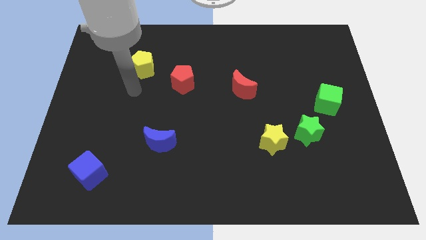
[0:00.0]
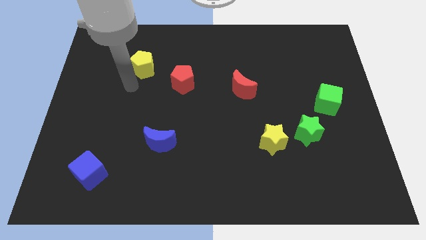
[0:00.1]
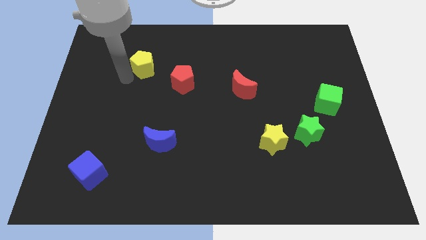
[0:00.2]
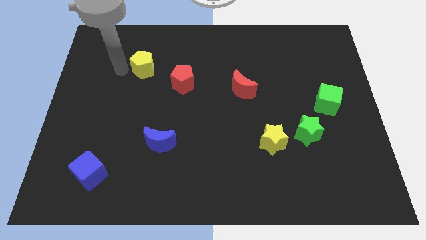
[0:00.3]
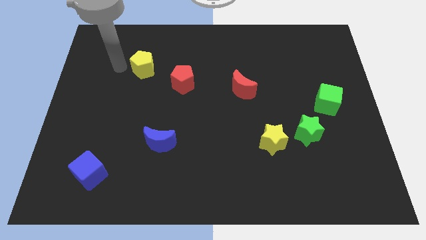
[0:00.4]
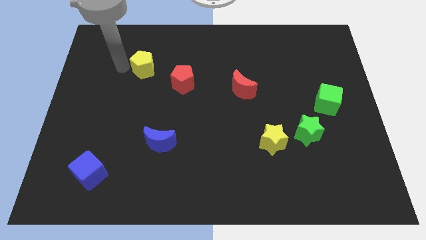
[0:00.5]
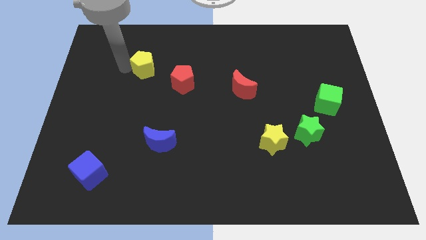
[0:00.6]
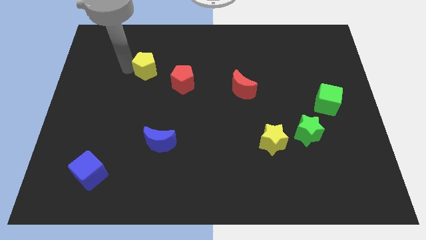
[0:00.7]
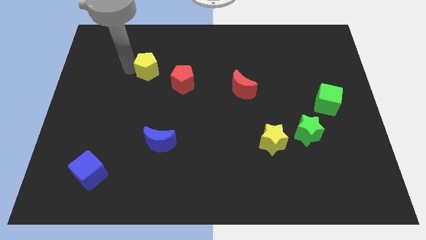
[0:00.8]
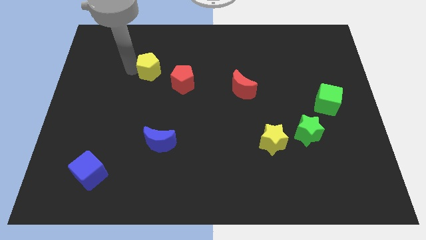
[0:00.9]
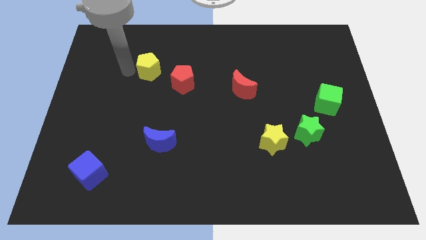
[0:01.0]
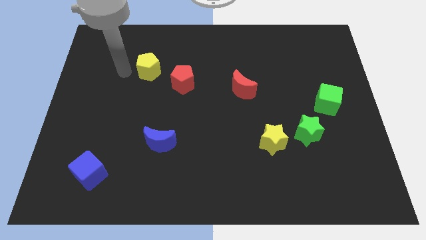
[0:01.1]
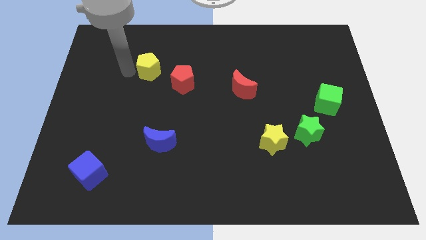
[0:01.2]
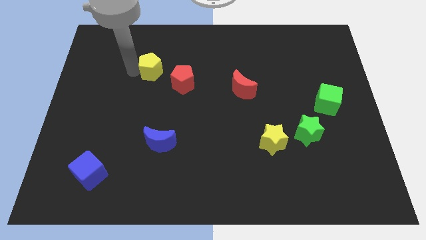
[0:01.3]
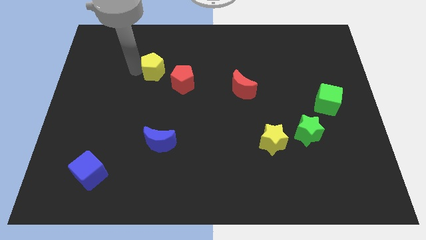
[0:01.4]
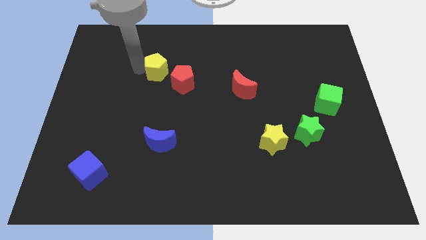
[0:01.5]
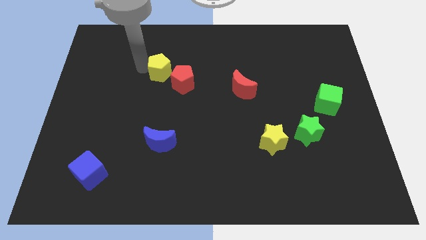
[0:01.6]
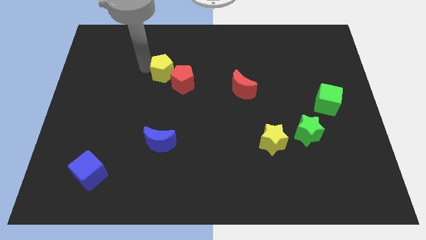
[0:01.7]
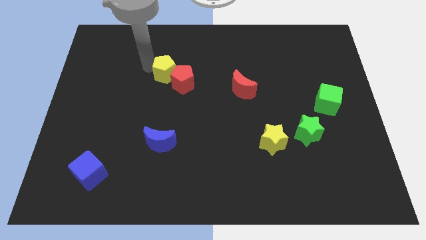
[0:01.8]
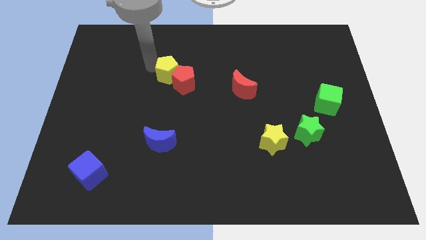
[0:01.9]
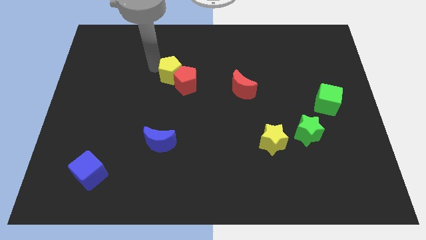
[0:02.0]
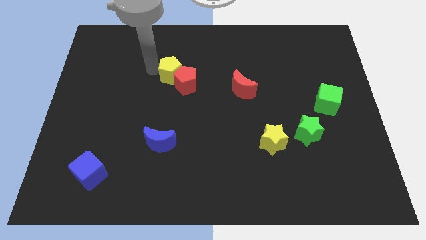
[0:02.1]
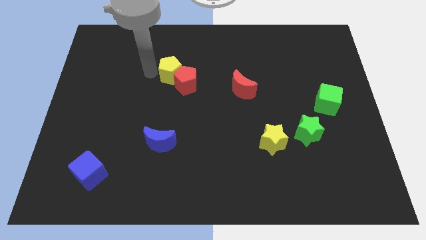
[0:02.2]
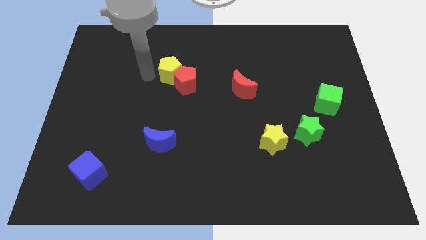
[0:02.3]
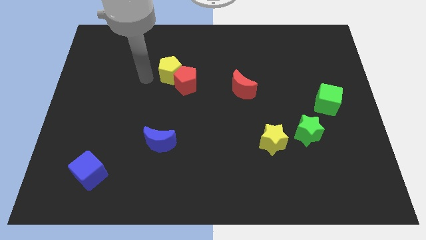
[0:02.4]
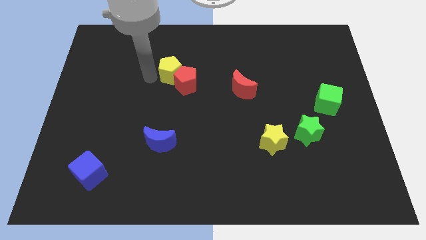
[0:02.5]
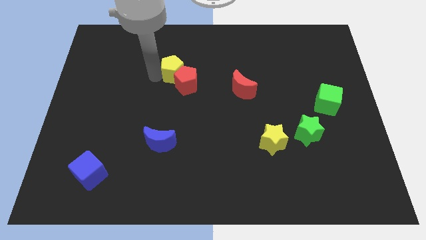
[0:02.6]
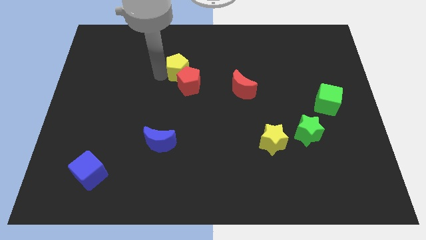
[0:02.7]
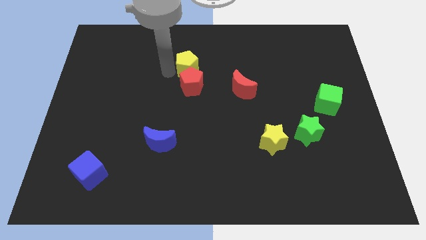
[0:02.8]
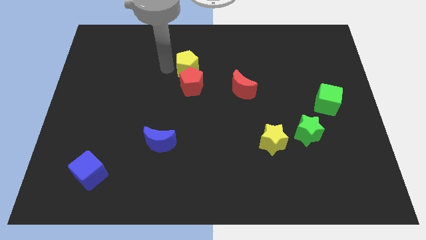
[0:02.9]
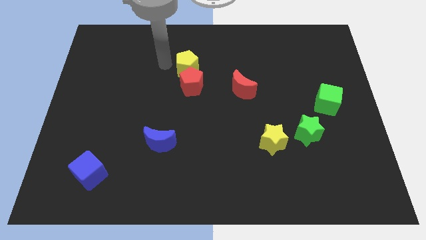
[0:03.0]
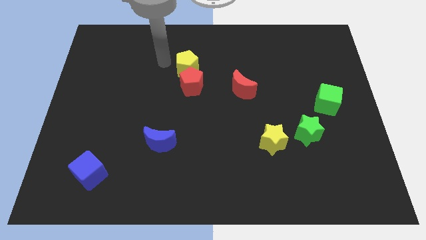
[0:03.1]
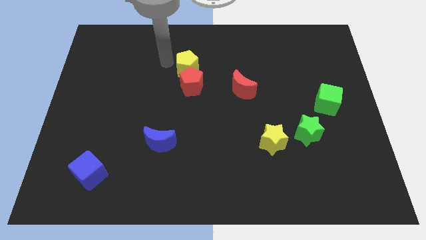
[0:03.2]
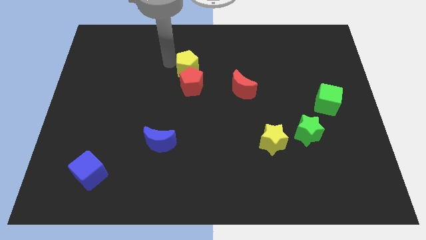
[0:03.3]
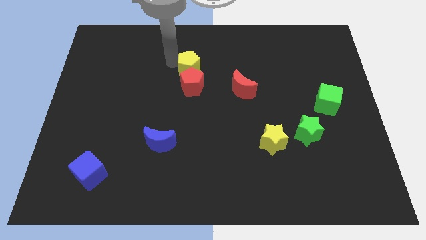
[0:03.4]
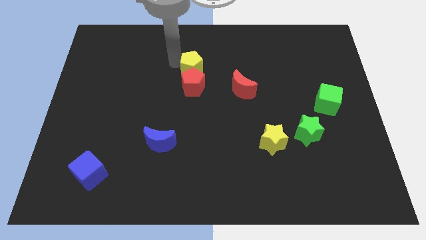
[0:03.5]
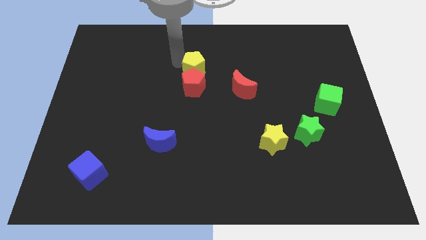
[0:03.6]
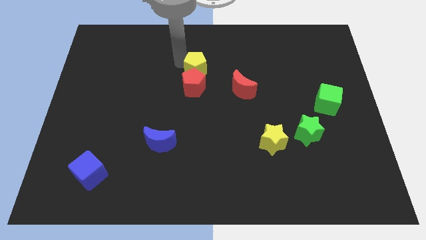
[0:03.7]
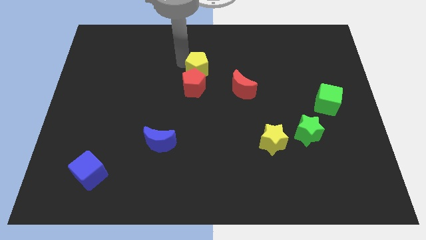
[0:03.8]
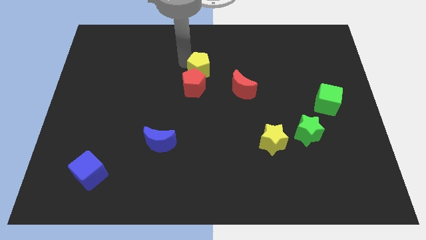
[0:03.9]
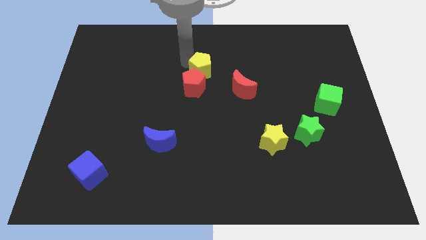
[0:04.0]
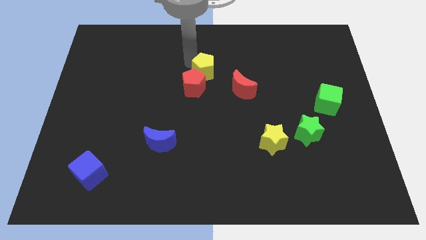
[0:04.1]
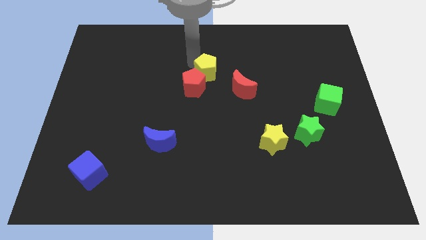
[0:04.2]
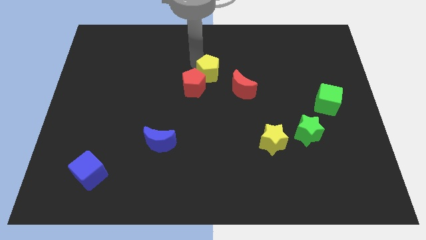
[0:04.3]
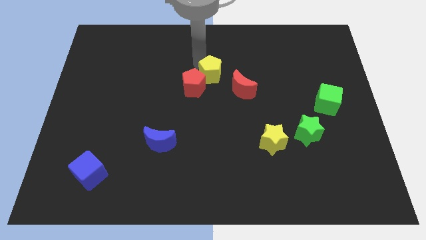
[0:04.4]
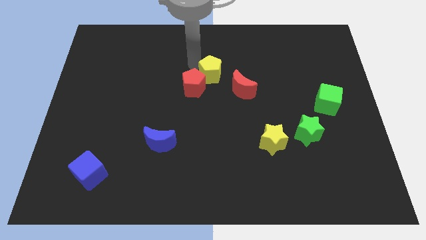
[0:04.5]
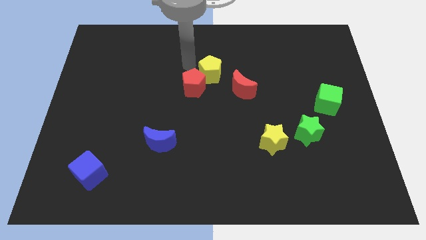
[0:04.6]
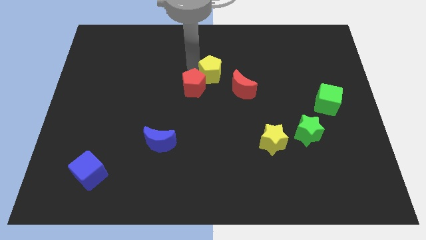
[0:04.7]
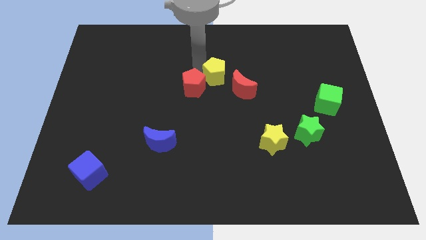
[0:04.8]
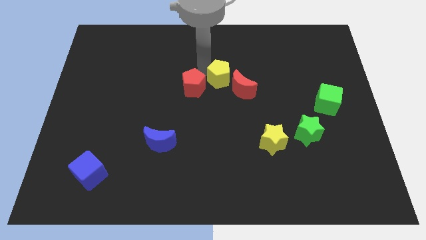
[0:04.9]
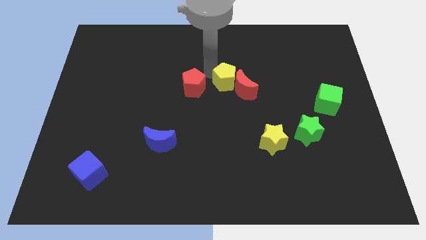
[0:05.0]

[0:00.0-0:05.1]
put the yellow pentagon towards the red moon

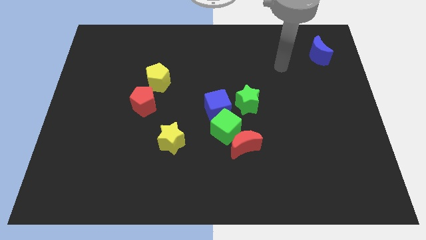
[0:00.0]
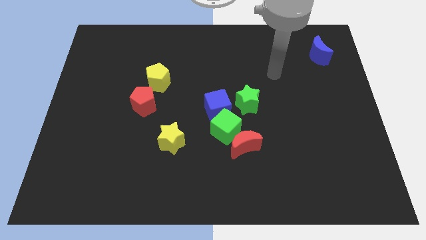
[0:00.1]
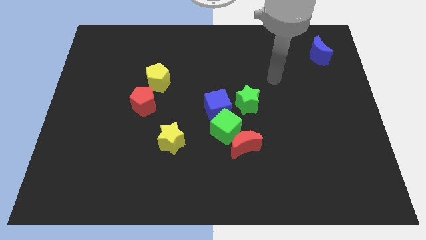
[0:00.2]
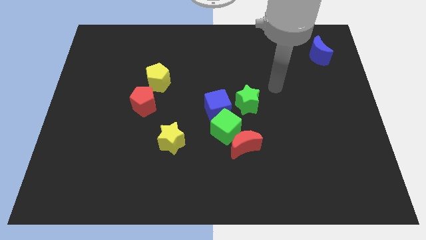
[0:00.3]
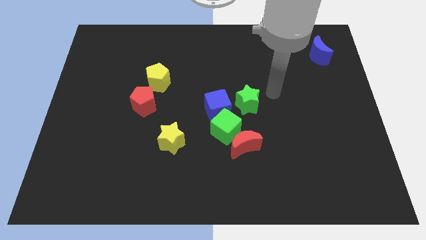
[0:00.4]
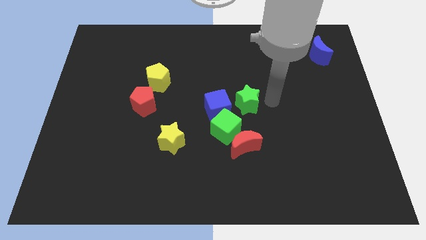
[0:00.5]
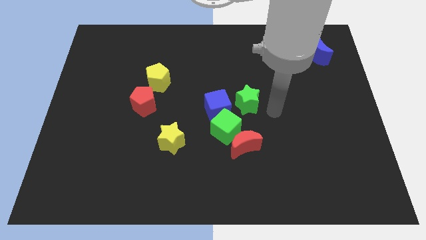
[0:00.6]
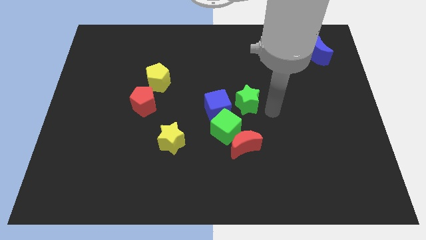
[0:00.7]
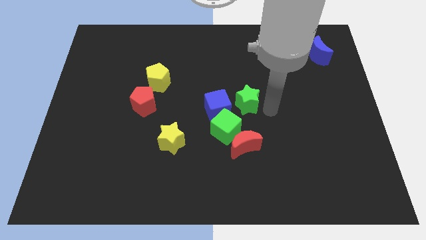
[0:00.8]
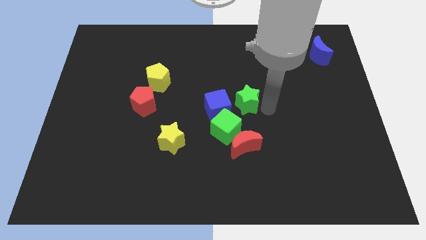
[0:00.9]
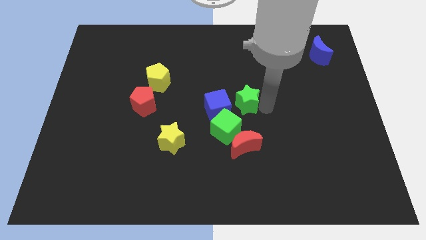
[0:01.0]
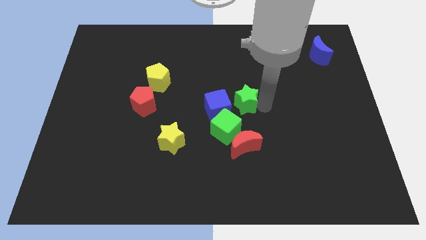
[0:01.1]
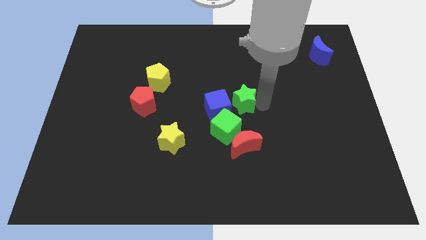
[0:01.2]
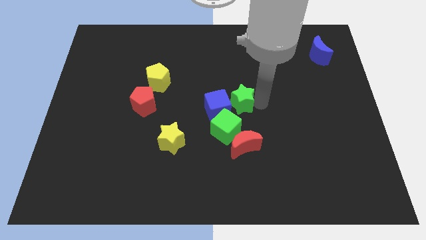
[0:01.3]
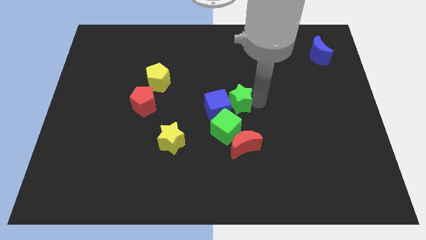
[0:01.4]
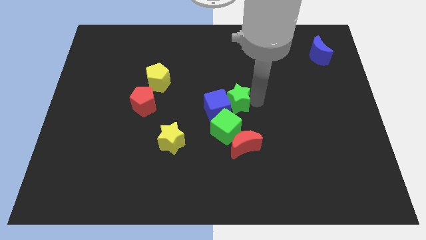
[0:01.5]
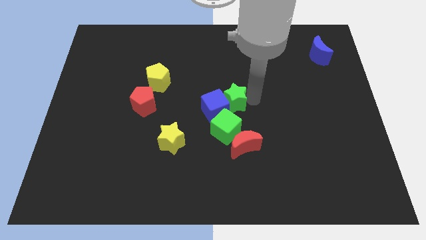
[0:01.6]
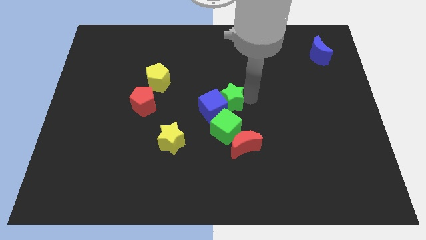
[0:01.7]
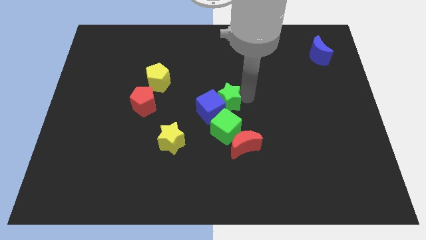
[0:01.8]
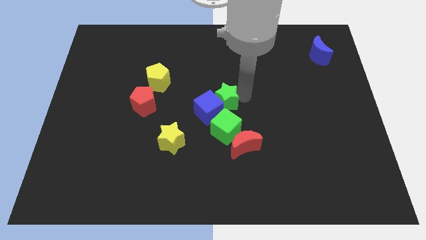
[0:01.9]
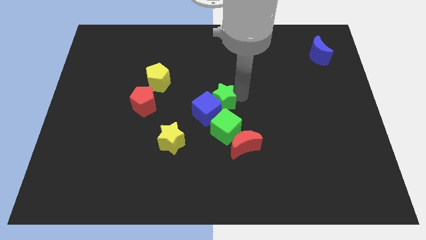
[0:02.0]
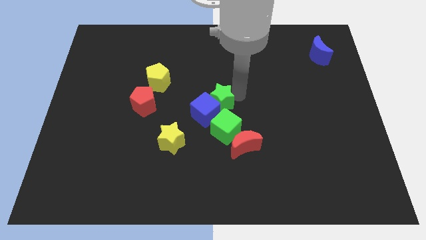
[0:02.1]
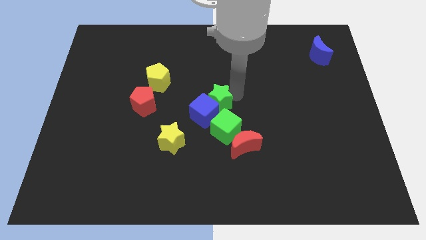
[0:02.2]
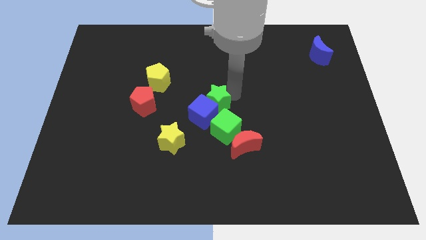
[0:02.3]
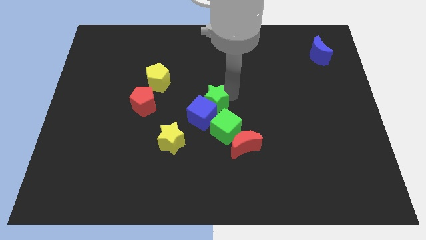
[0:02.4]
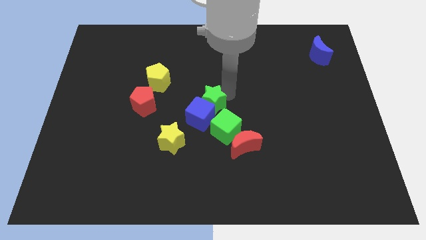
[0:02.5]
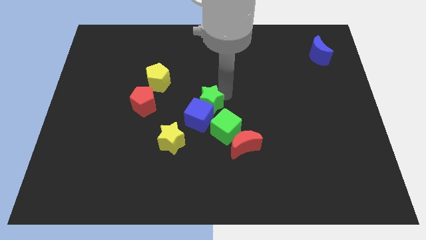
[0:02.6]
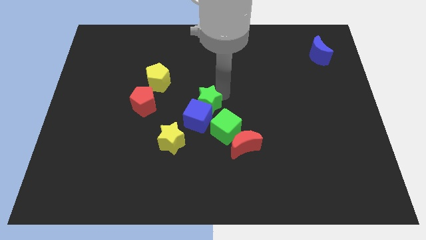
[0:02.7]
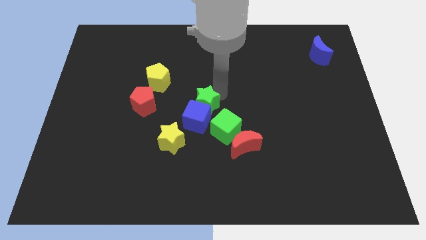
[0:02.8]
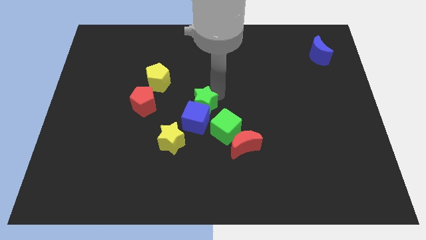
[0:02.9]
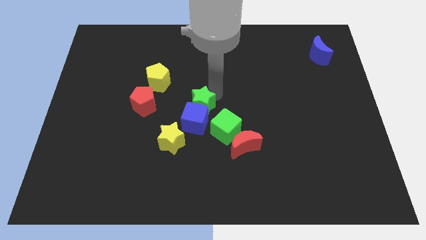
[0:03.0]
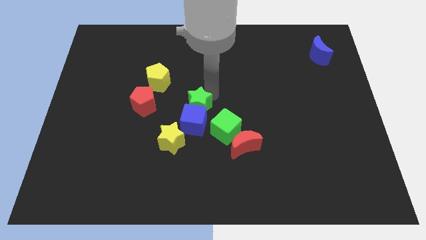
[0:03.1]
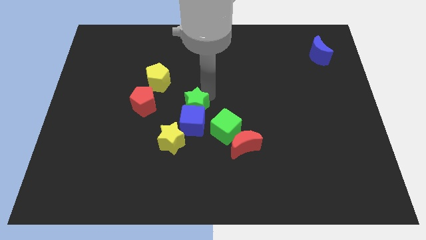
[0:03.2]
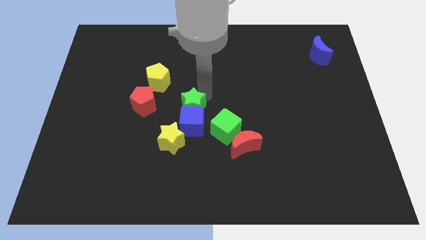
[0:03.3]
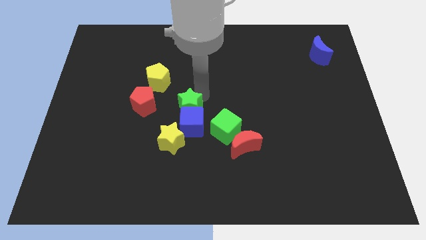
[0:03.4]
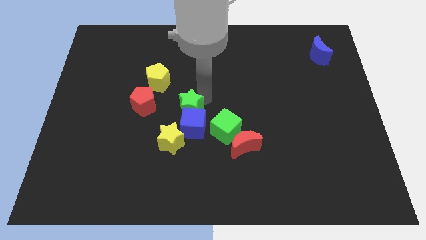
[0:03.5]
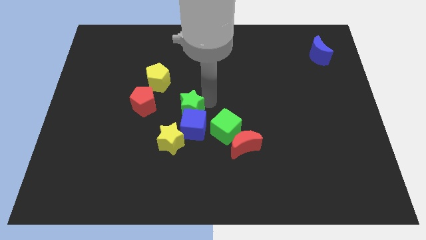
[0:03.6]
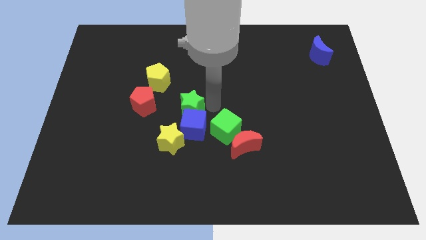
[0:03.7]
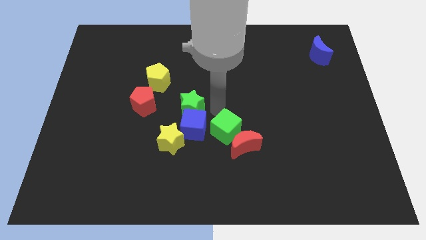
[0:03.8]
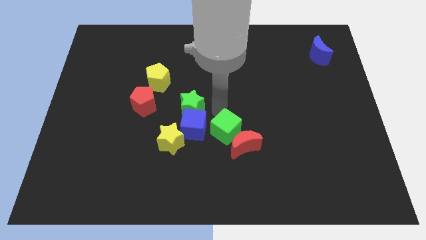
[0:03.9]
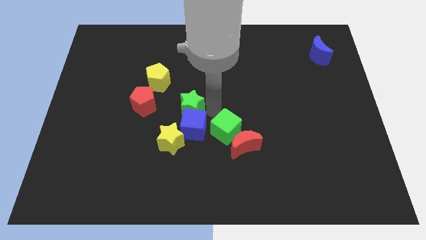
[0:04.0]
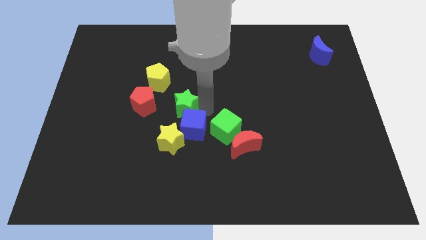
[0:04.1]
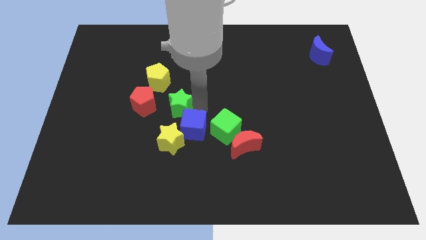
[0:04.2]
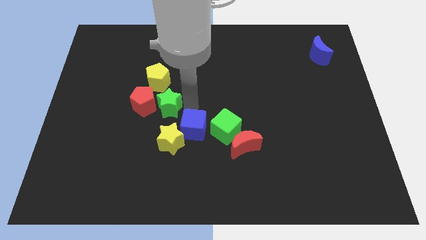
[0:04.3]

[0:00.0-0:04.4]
move the green star towards the red pentagon
